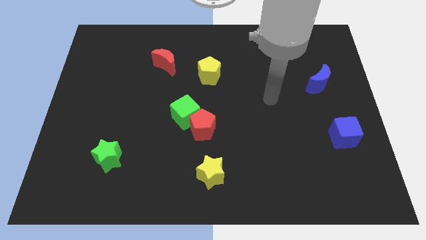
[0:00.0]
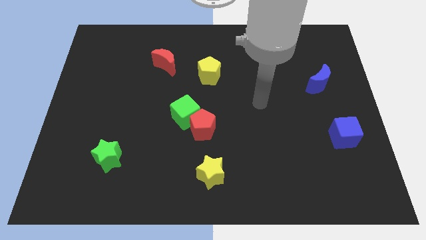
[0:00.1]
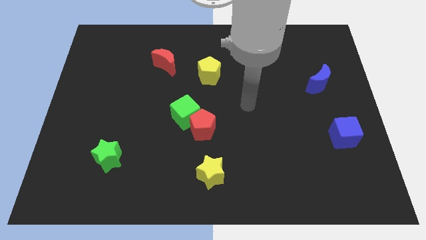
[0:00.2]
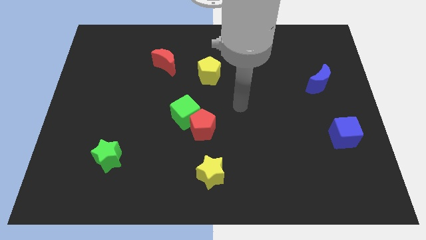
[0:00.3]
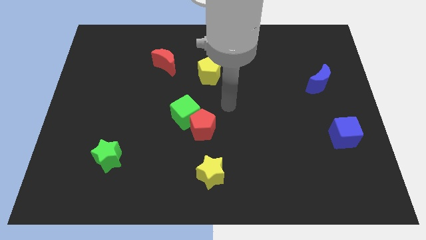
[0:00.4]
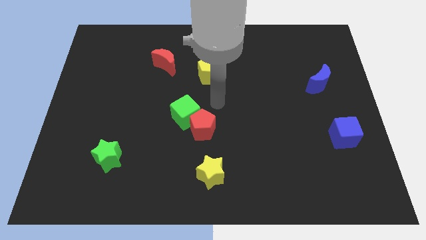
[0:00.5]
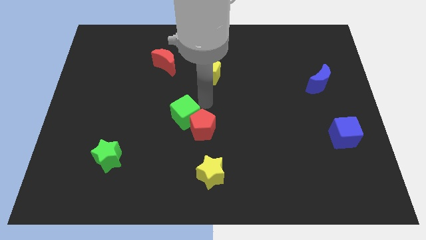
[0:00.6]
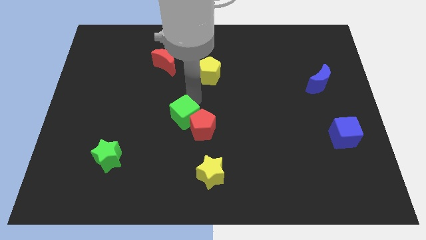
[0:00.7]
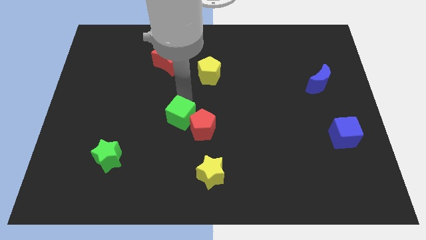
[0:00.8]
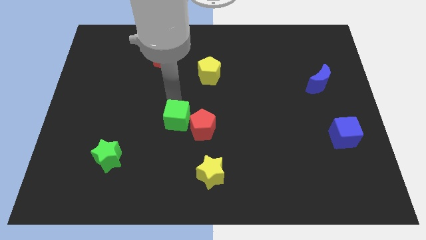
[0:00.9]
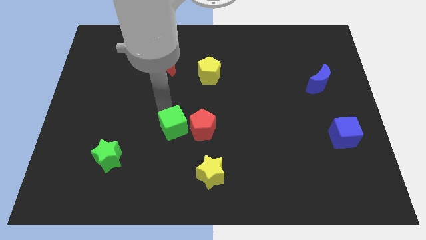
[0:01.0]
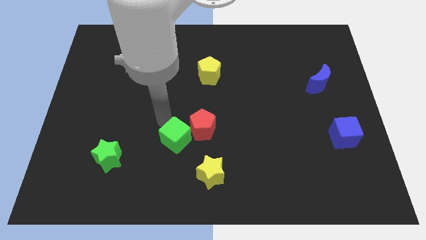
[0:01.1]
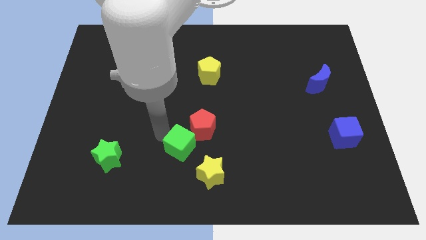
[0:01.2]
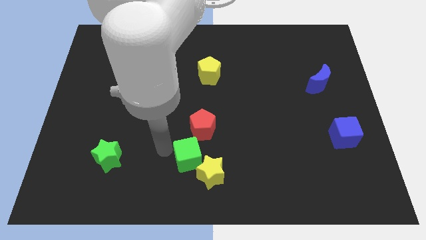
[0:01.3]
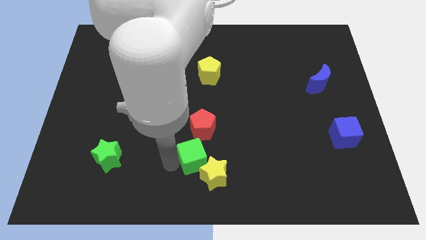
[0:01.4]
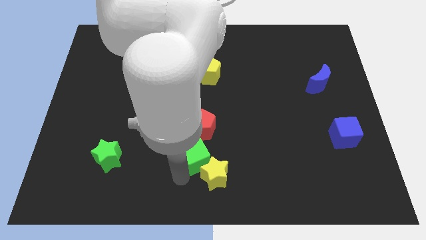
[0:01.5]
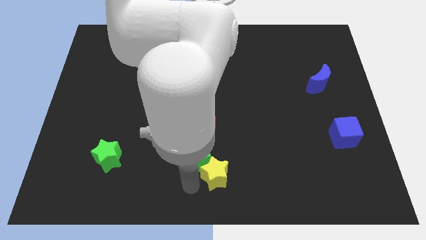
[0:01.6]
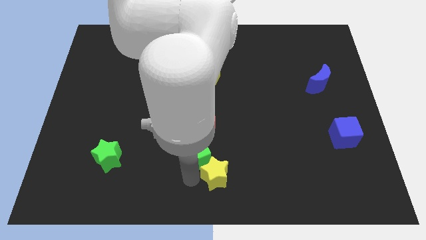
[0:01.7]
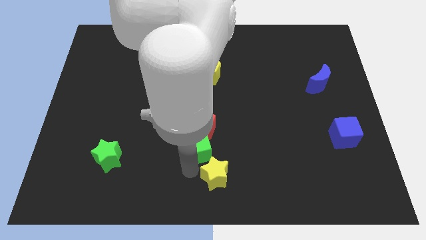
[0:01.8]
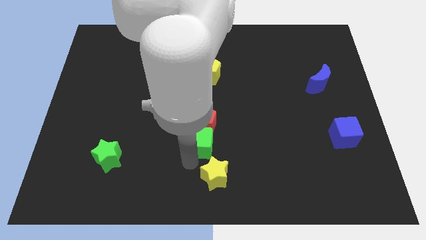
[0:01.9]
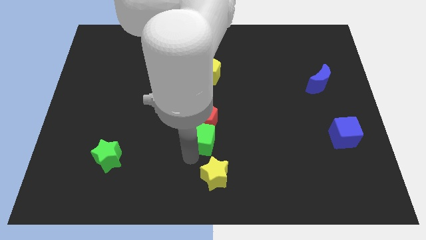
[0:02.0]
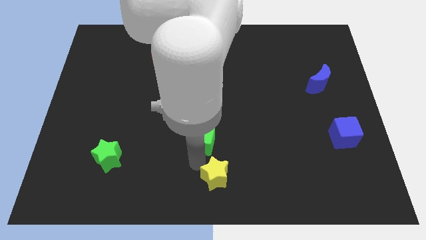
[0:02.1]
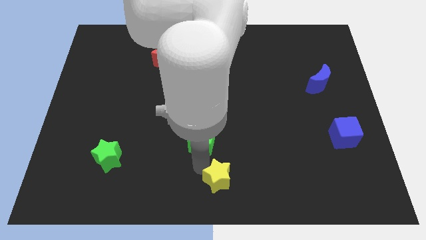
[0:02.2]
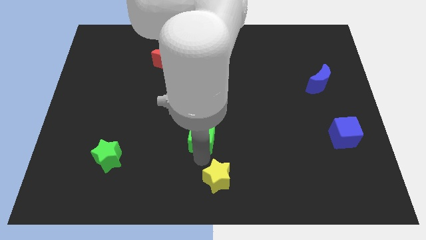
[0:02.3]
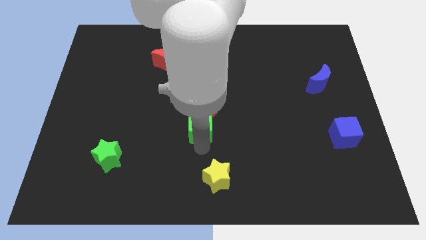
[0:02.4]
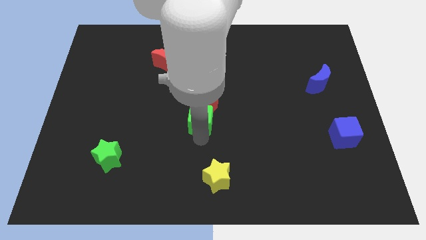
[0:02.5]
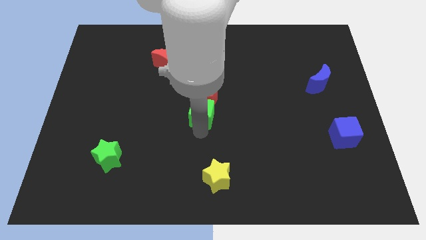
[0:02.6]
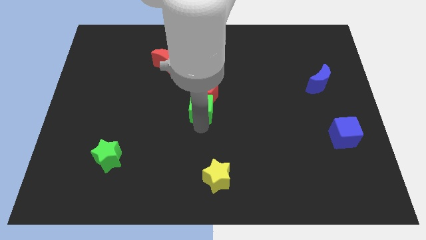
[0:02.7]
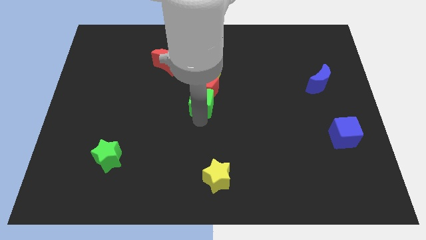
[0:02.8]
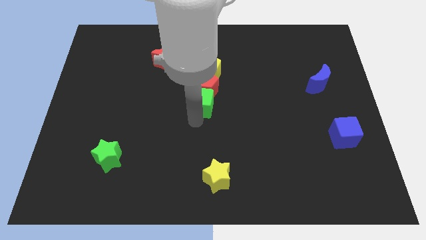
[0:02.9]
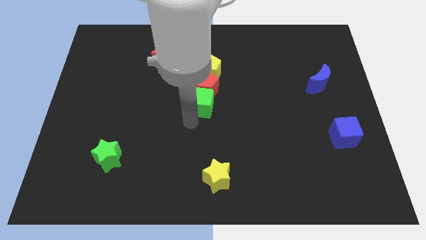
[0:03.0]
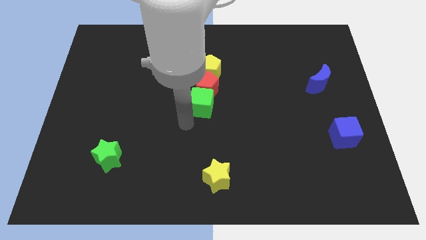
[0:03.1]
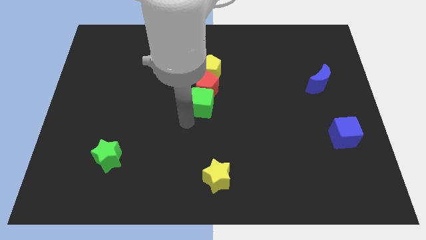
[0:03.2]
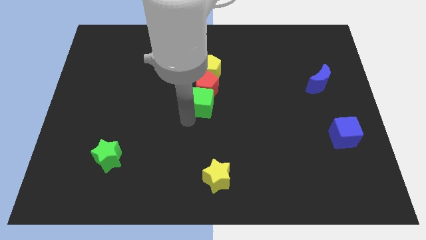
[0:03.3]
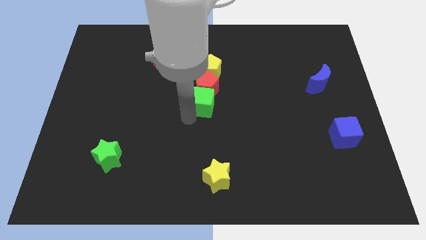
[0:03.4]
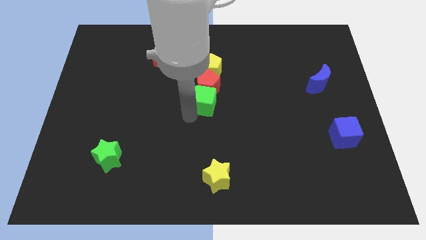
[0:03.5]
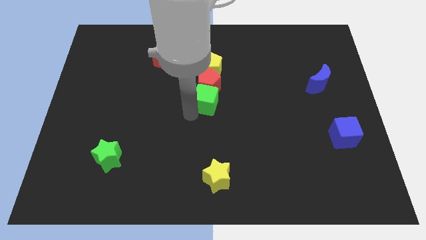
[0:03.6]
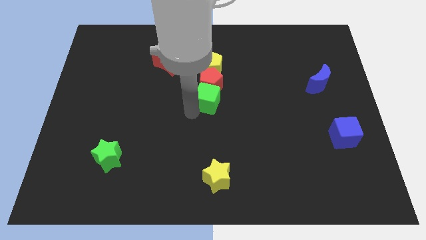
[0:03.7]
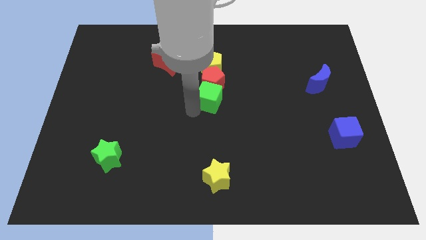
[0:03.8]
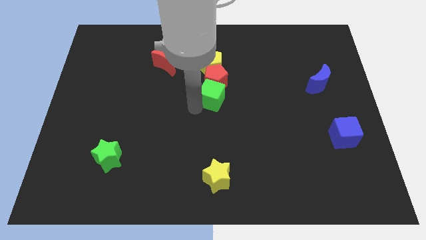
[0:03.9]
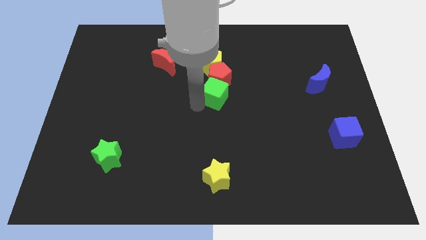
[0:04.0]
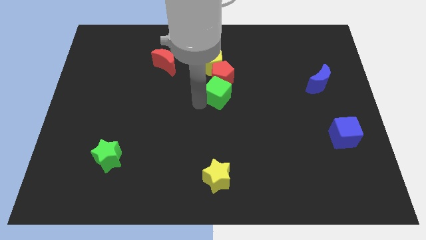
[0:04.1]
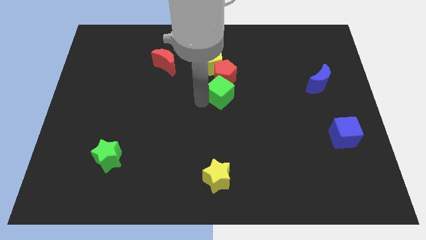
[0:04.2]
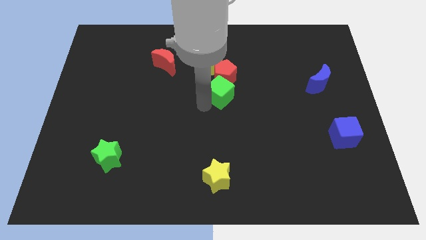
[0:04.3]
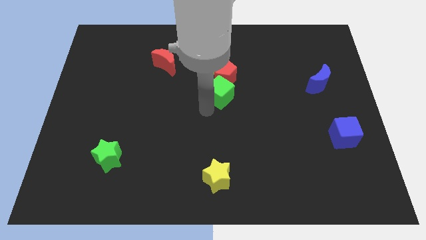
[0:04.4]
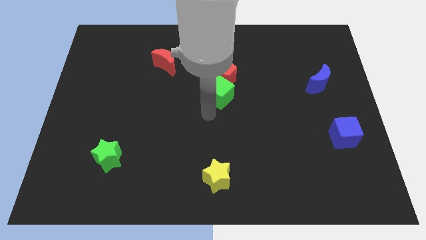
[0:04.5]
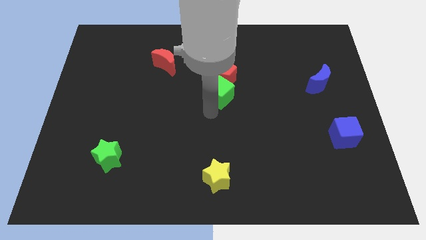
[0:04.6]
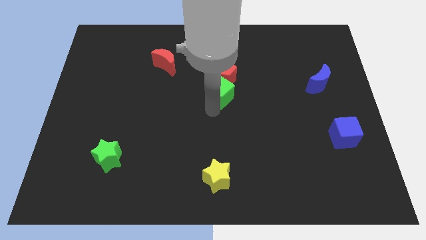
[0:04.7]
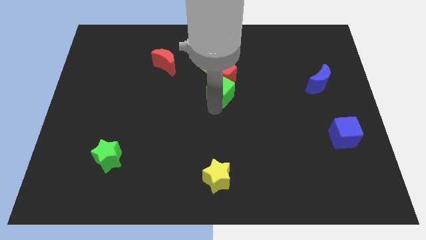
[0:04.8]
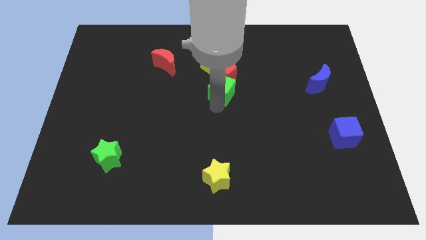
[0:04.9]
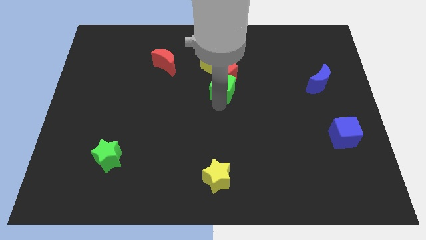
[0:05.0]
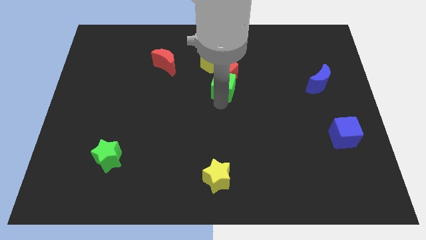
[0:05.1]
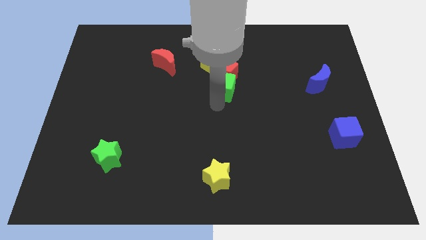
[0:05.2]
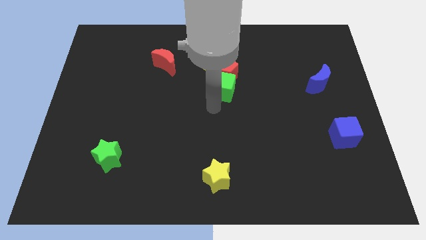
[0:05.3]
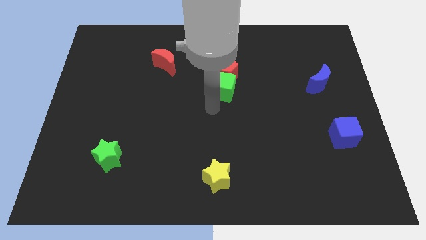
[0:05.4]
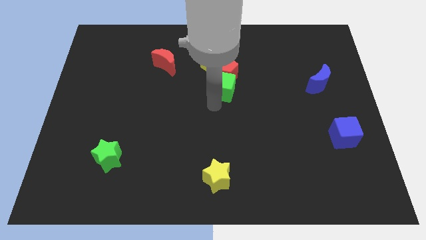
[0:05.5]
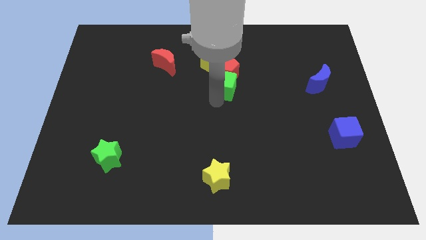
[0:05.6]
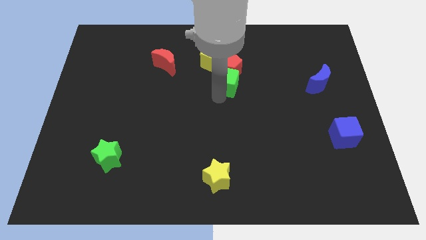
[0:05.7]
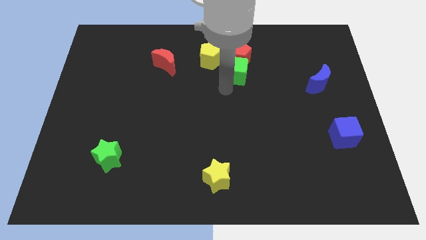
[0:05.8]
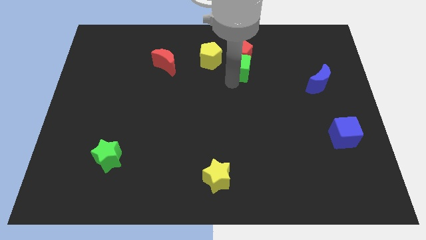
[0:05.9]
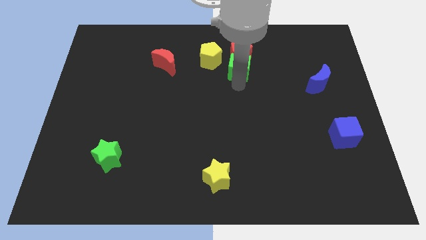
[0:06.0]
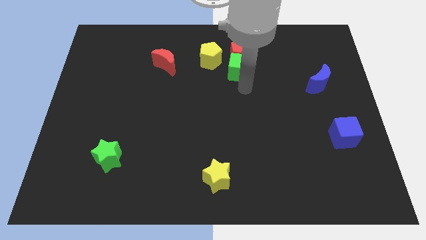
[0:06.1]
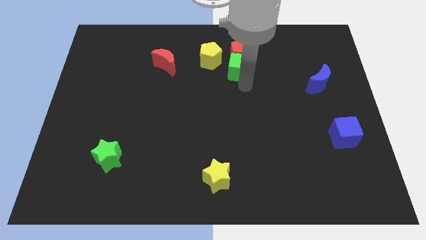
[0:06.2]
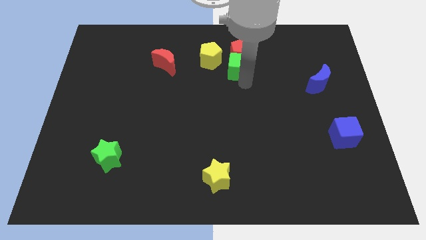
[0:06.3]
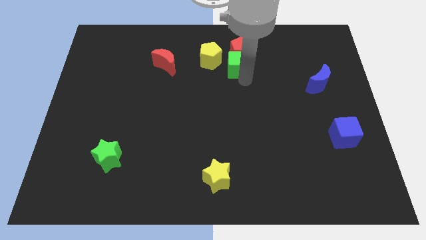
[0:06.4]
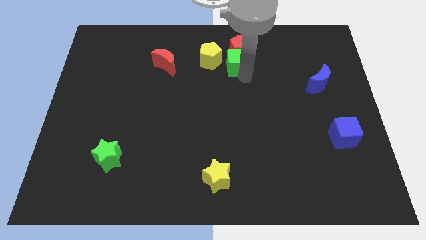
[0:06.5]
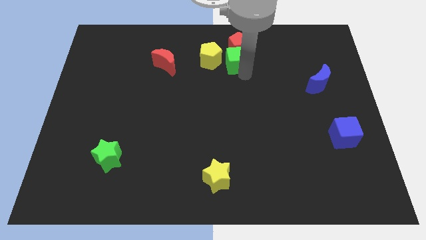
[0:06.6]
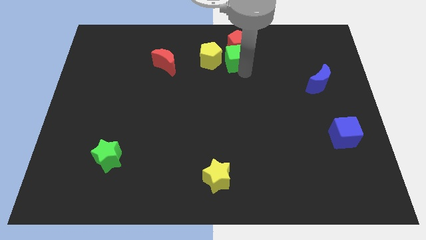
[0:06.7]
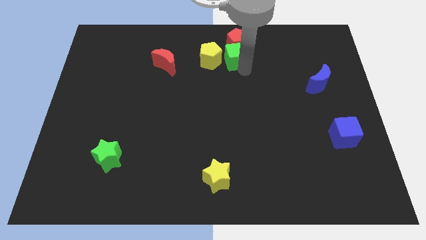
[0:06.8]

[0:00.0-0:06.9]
slide the green cube to the top right side of the yellow pentagon
